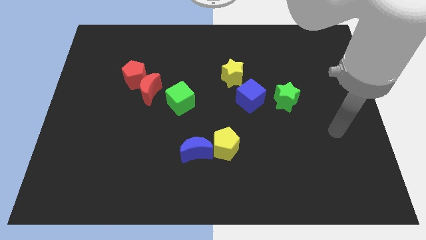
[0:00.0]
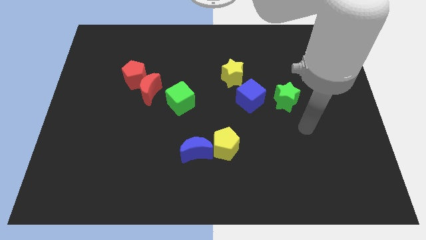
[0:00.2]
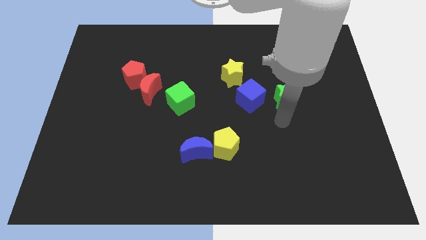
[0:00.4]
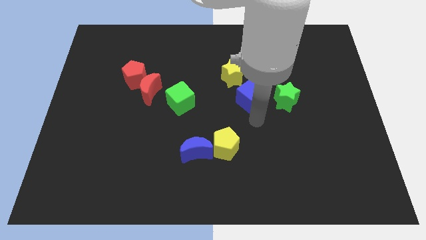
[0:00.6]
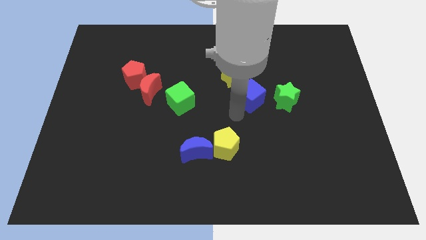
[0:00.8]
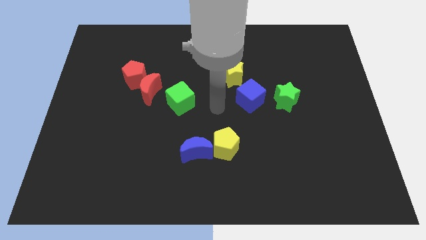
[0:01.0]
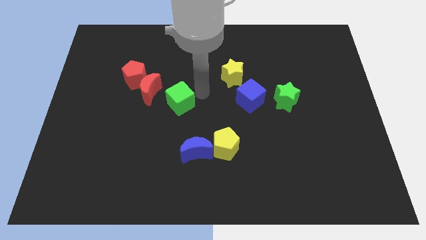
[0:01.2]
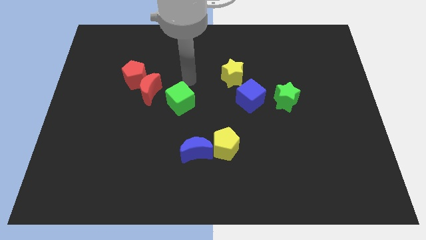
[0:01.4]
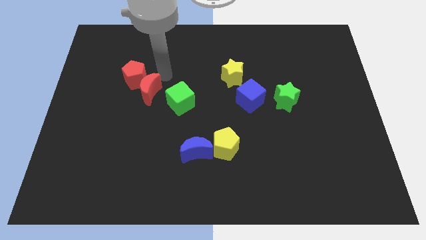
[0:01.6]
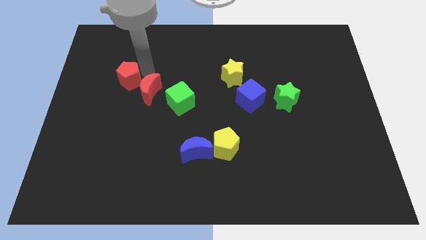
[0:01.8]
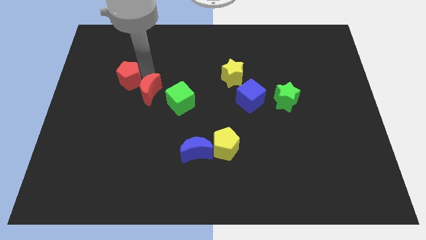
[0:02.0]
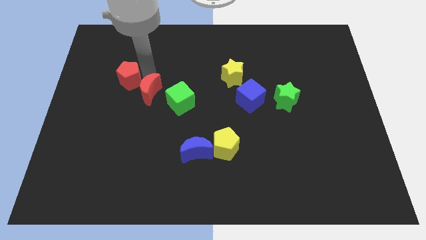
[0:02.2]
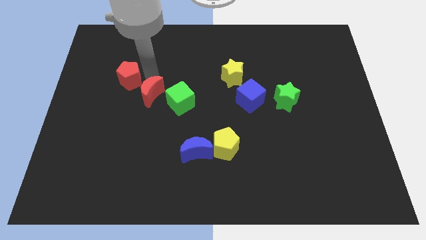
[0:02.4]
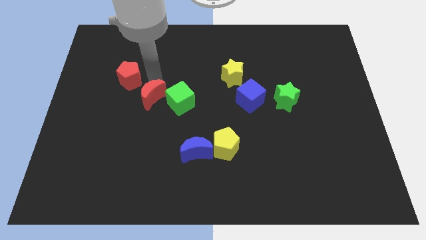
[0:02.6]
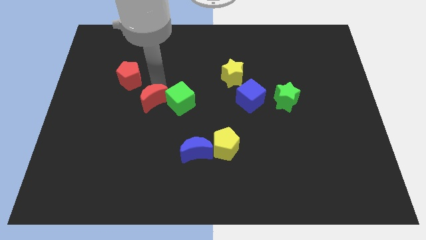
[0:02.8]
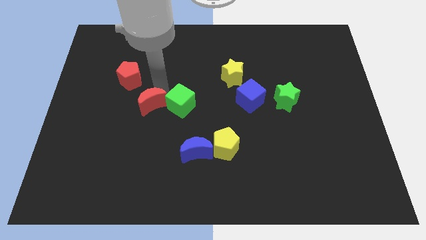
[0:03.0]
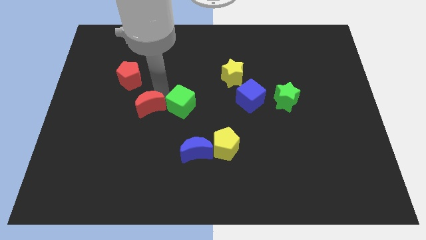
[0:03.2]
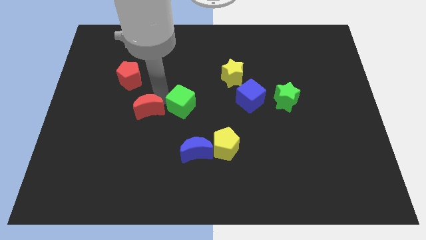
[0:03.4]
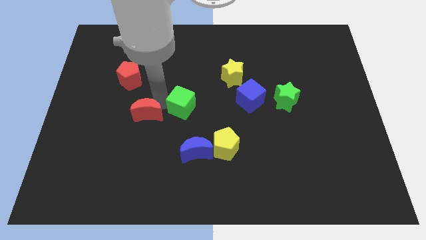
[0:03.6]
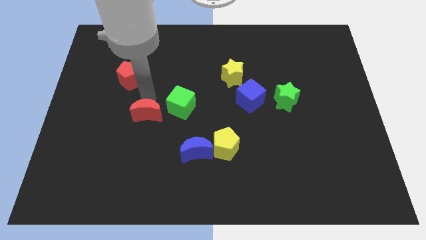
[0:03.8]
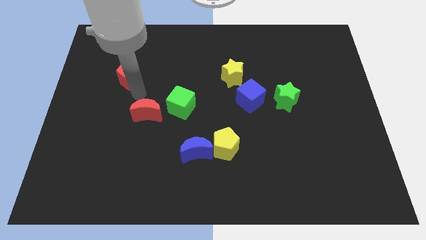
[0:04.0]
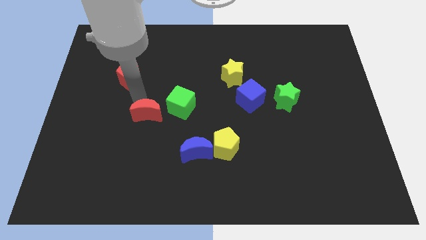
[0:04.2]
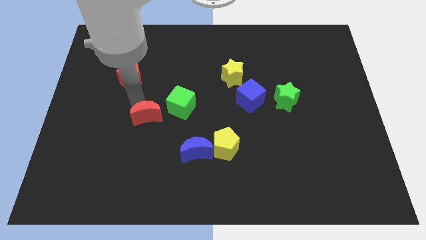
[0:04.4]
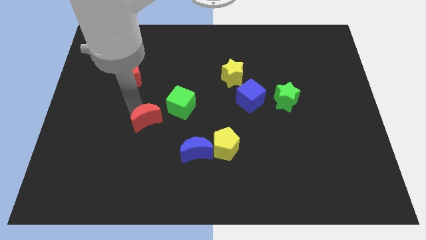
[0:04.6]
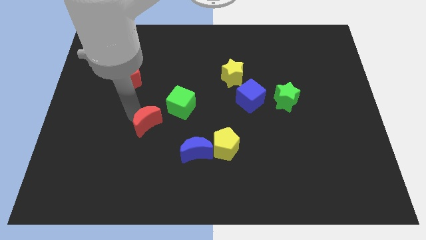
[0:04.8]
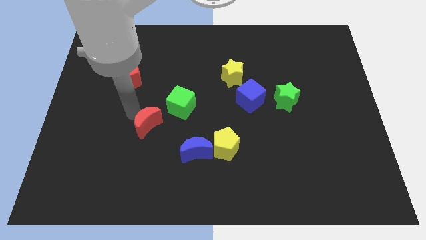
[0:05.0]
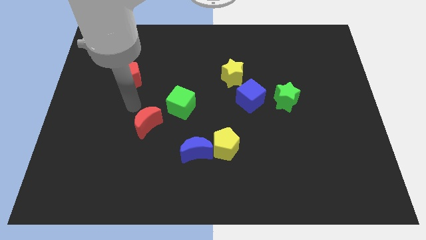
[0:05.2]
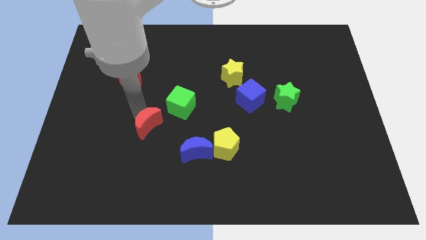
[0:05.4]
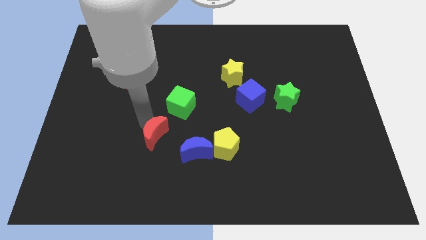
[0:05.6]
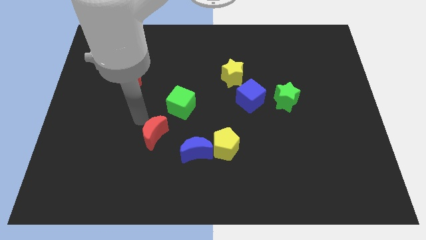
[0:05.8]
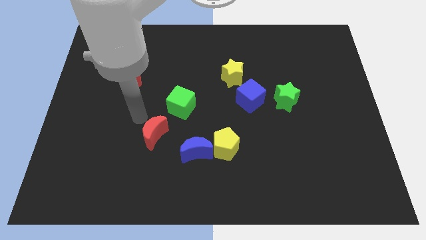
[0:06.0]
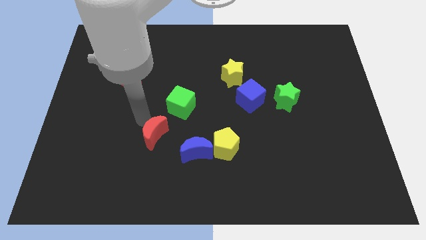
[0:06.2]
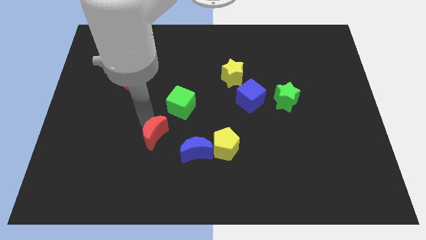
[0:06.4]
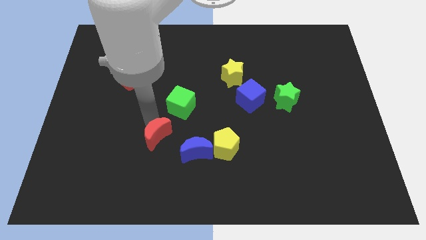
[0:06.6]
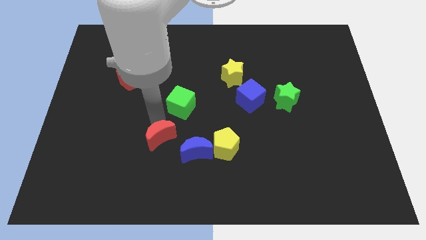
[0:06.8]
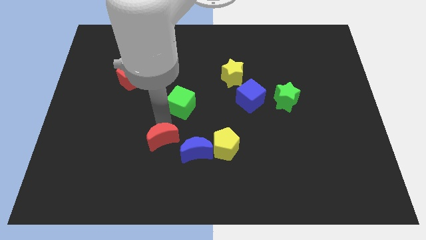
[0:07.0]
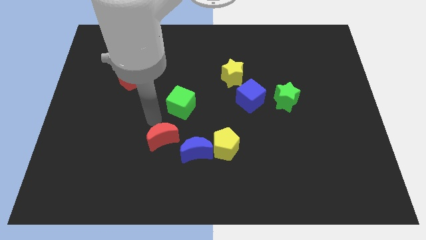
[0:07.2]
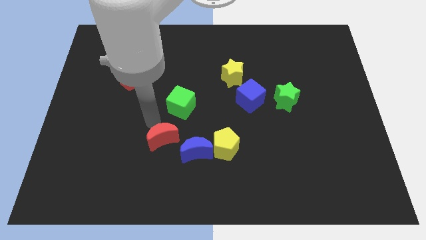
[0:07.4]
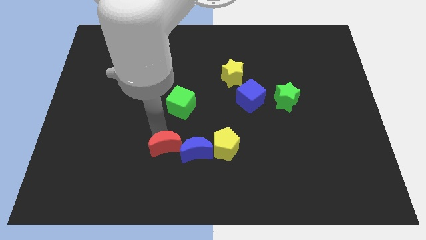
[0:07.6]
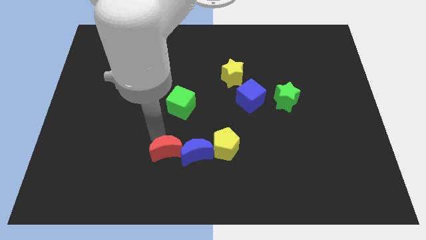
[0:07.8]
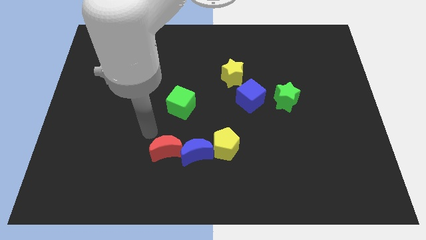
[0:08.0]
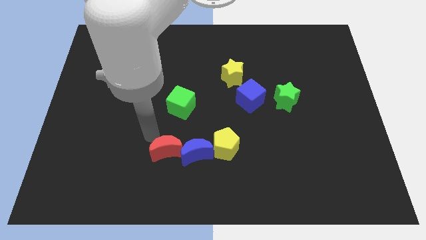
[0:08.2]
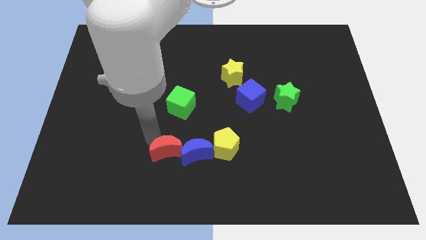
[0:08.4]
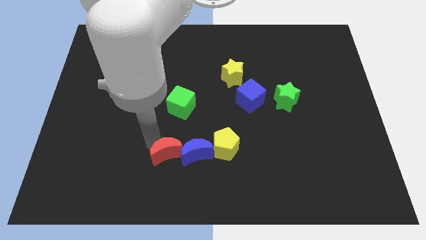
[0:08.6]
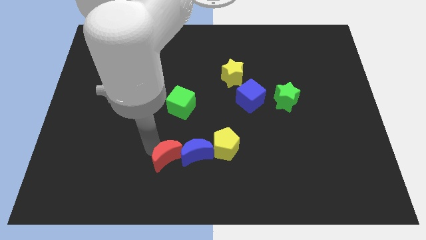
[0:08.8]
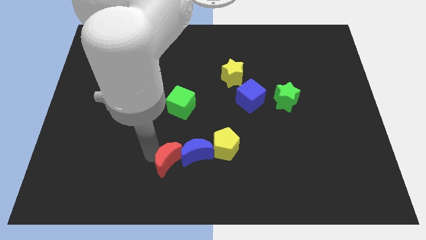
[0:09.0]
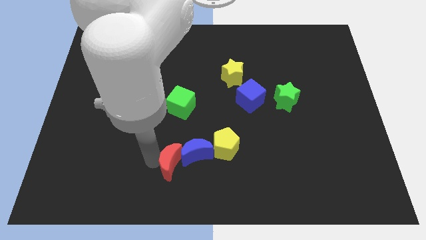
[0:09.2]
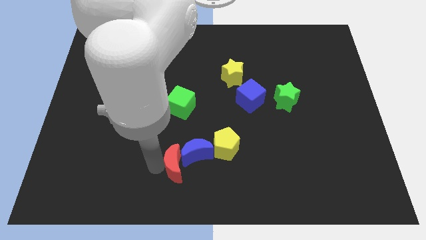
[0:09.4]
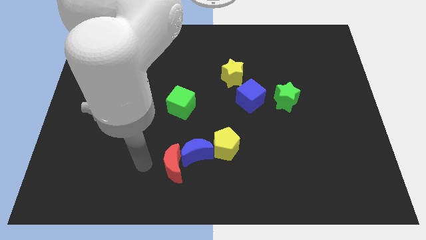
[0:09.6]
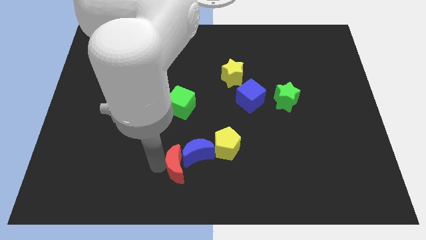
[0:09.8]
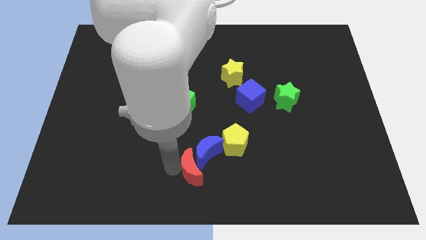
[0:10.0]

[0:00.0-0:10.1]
slide the red moon down and then to the right

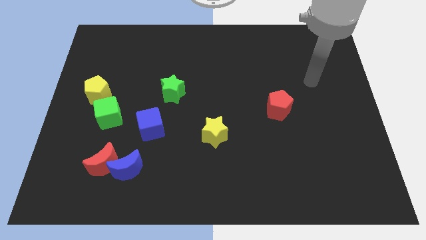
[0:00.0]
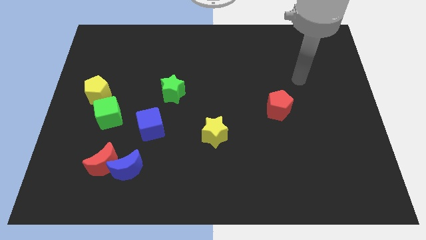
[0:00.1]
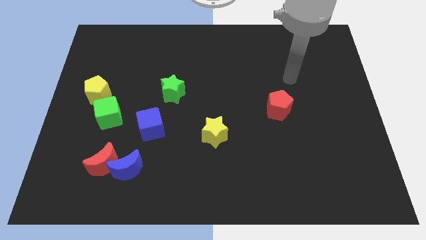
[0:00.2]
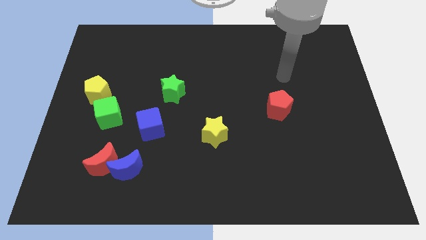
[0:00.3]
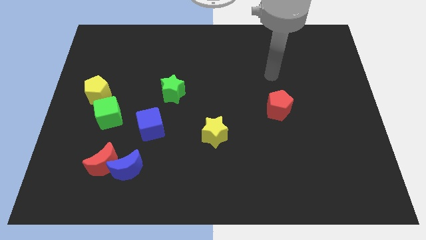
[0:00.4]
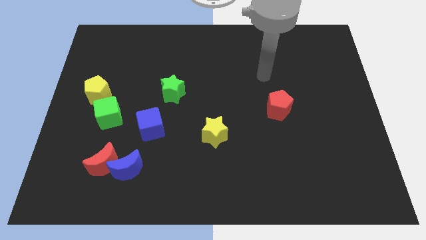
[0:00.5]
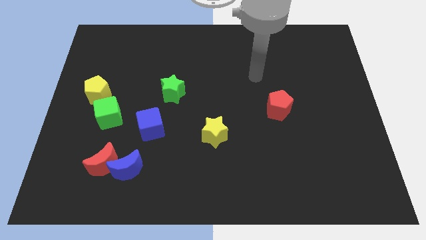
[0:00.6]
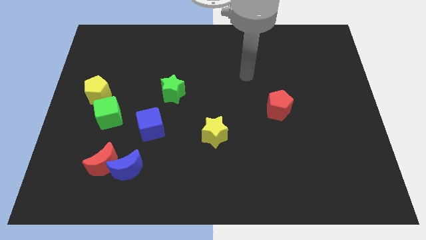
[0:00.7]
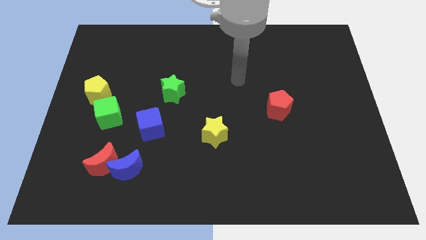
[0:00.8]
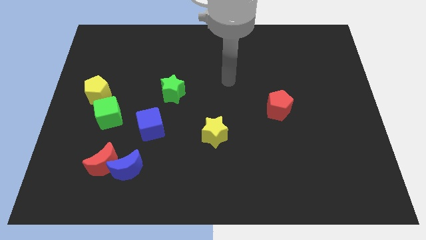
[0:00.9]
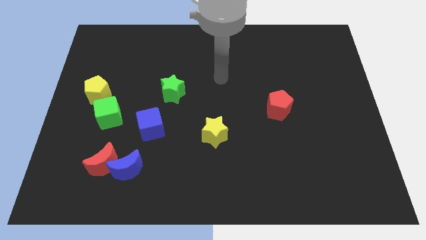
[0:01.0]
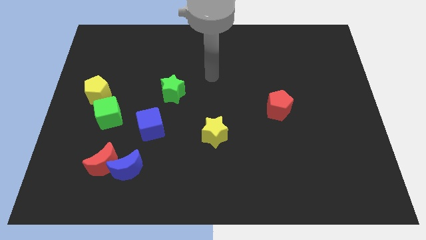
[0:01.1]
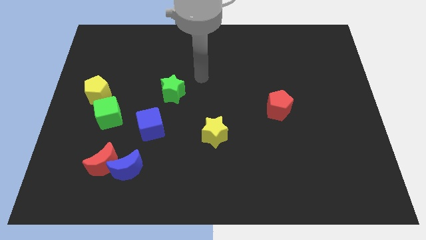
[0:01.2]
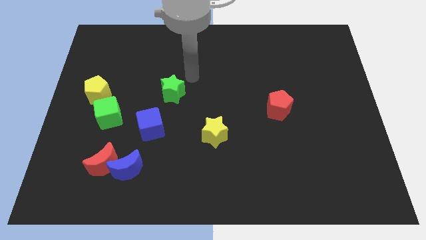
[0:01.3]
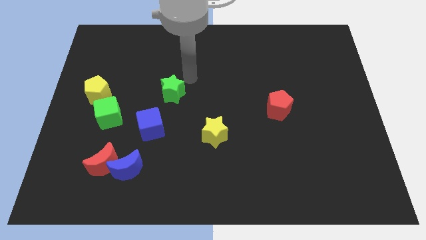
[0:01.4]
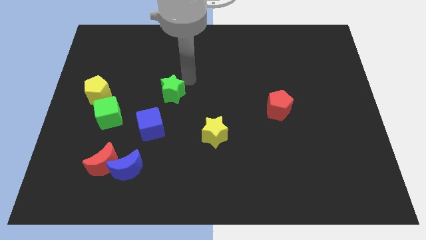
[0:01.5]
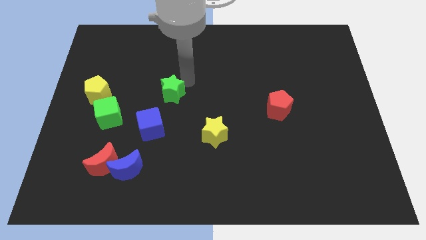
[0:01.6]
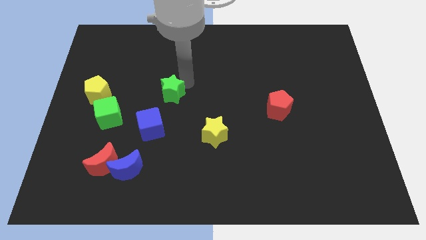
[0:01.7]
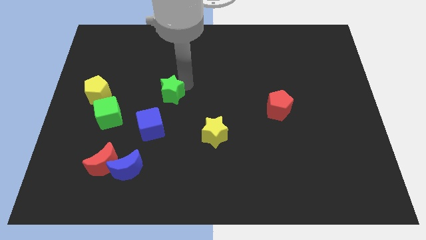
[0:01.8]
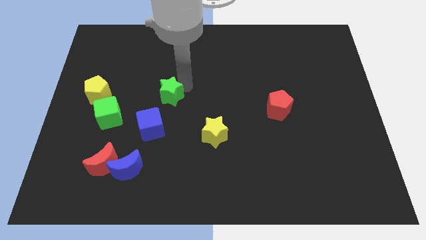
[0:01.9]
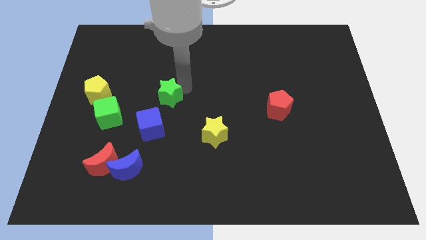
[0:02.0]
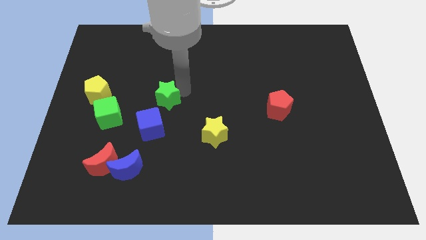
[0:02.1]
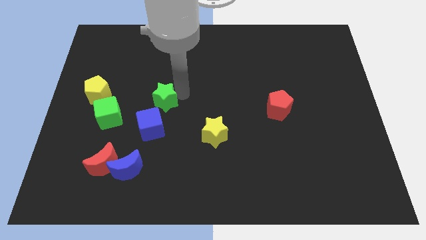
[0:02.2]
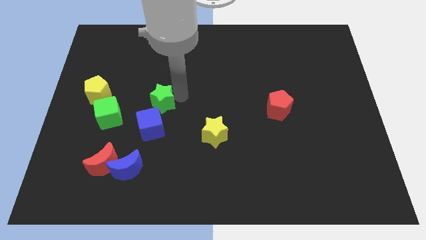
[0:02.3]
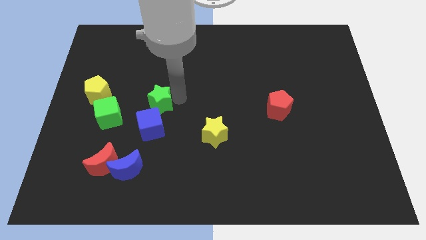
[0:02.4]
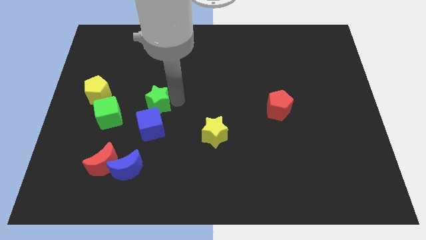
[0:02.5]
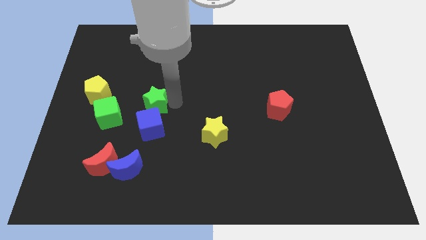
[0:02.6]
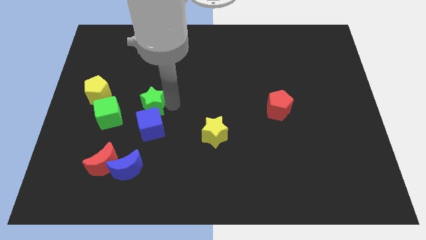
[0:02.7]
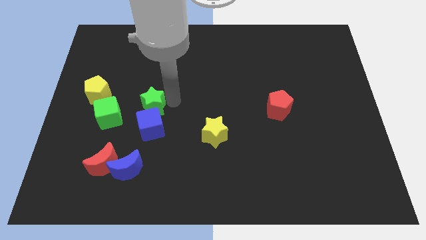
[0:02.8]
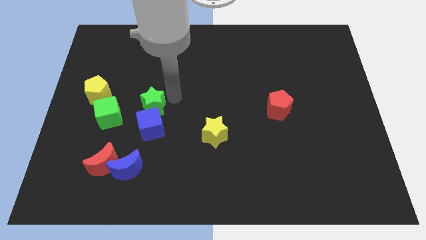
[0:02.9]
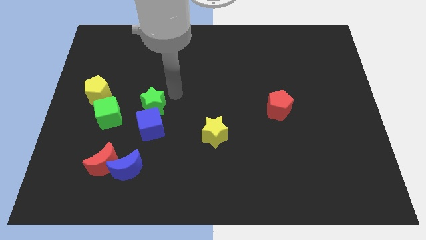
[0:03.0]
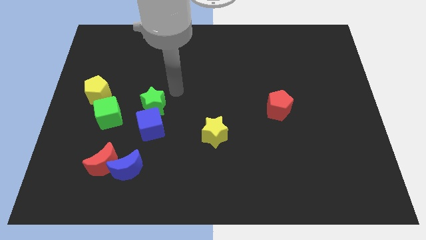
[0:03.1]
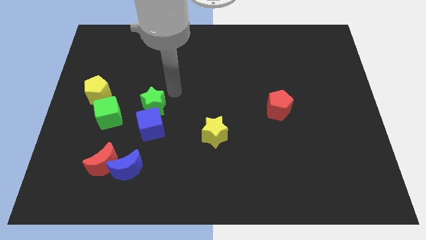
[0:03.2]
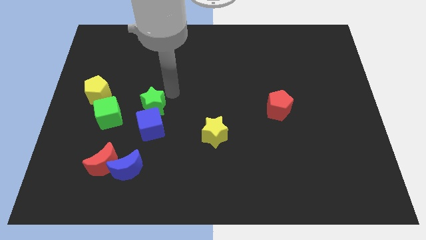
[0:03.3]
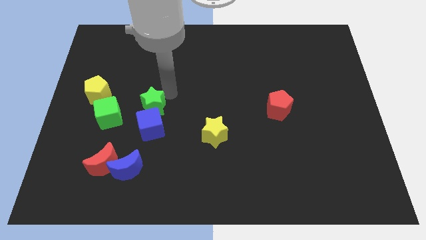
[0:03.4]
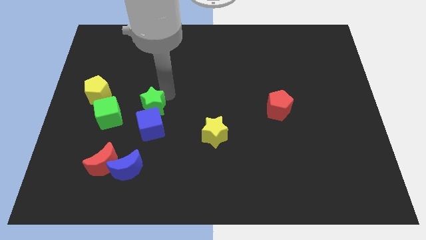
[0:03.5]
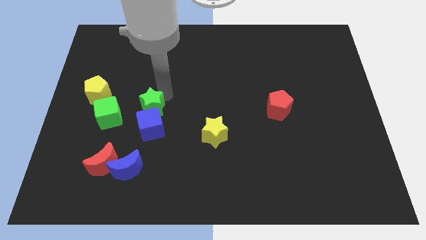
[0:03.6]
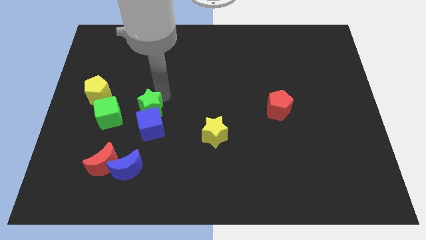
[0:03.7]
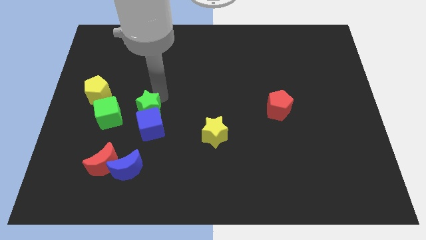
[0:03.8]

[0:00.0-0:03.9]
slide the green star slightly downwards and then left
